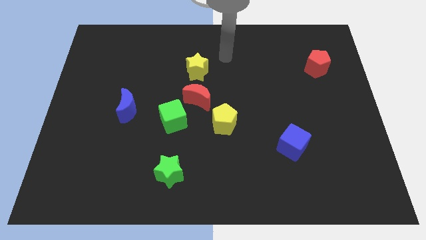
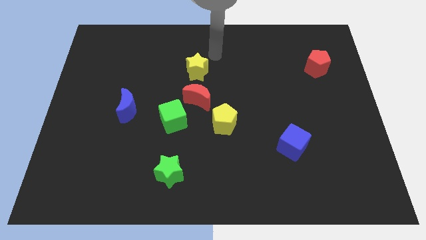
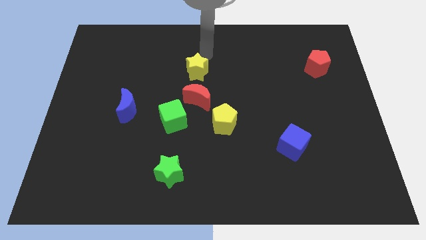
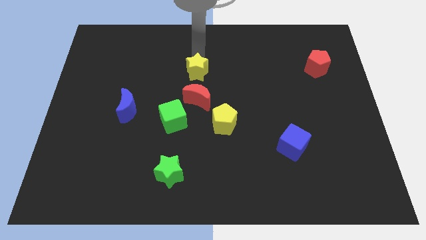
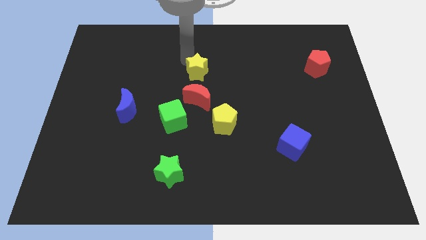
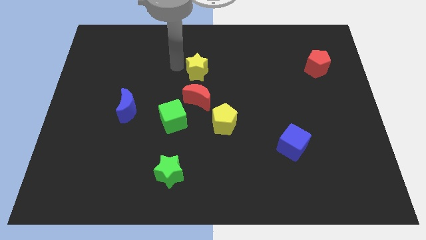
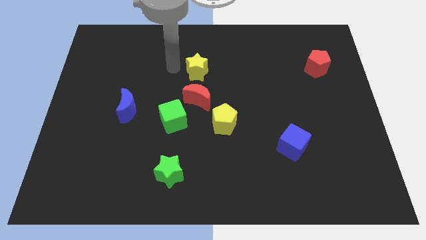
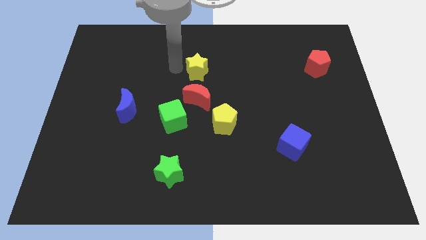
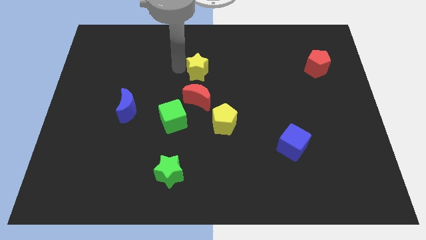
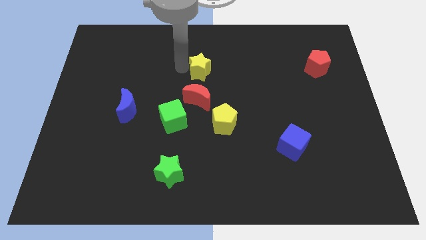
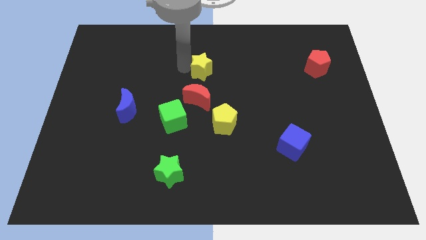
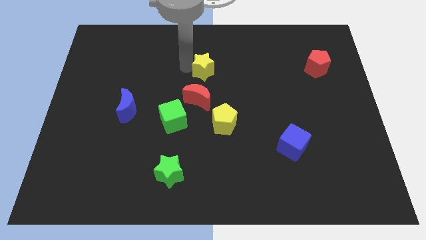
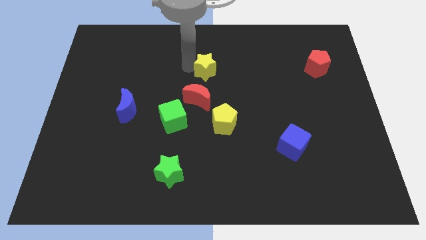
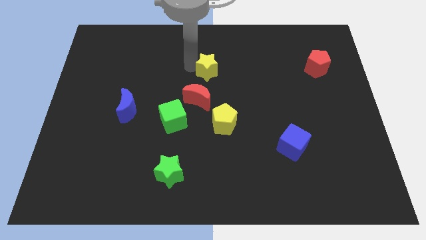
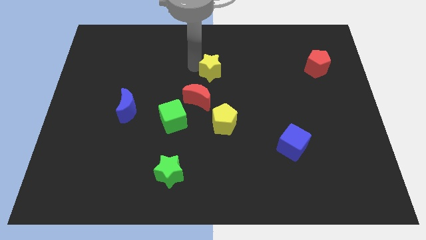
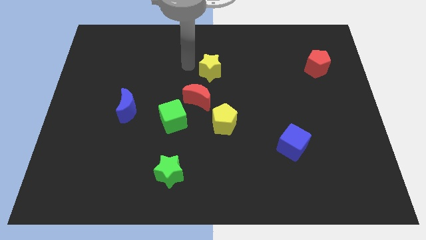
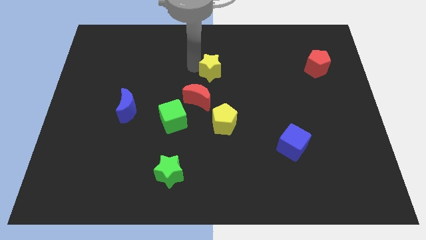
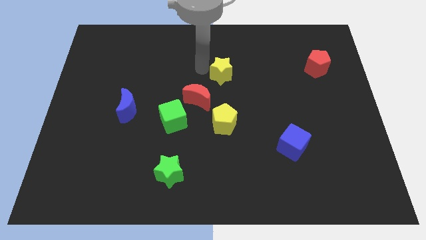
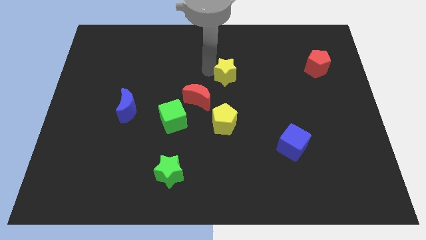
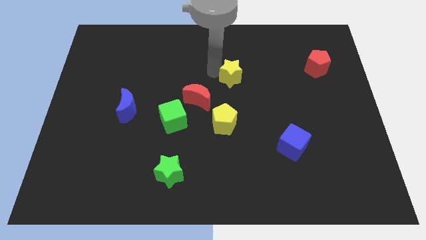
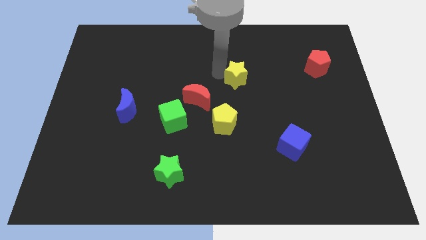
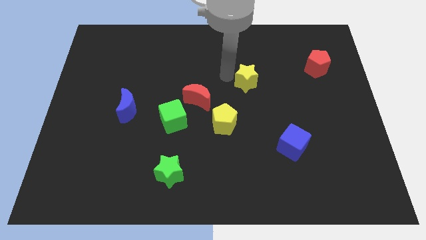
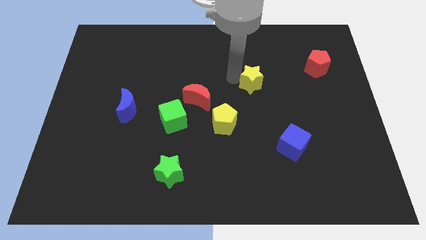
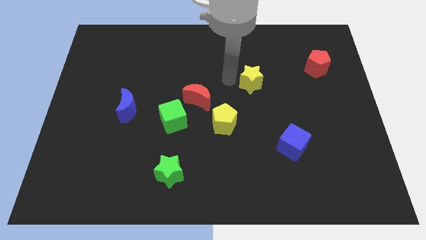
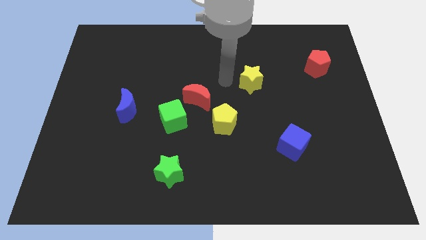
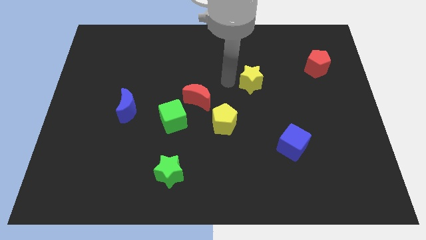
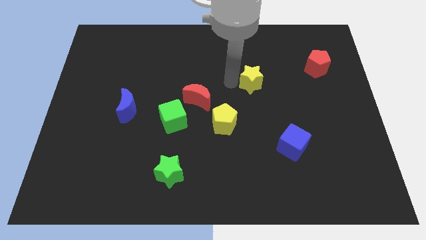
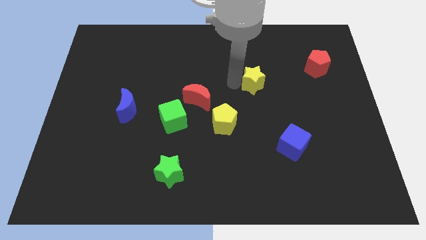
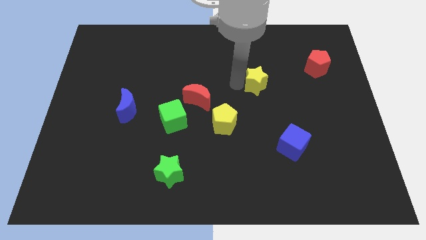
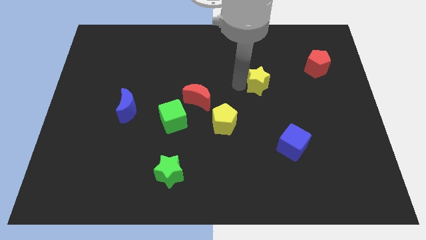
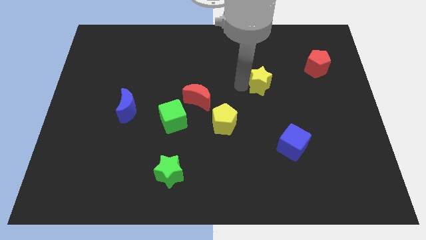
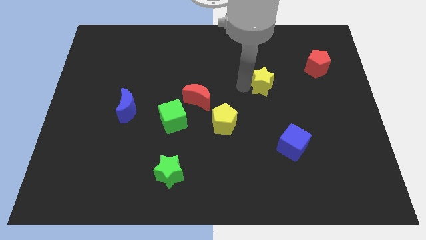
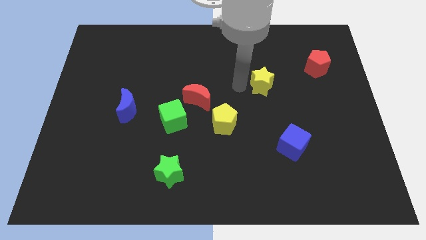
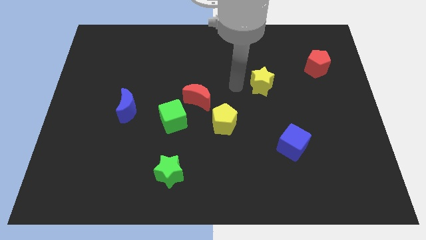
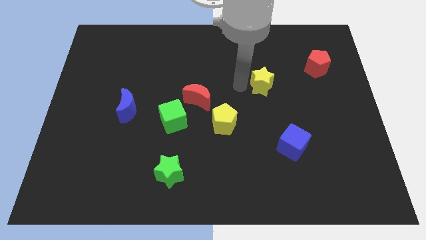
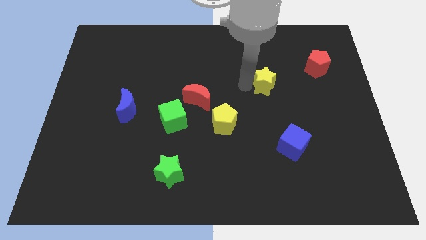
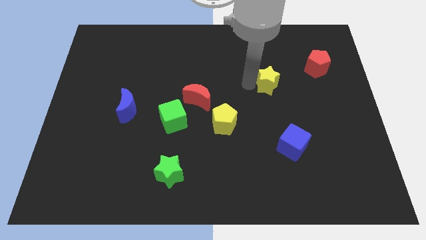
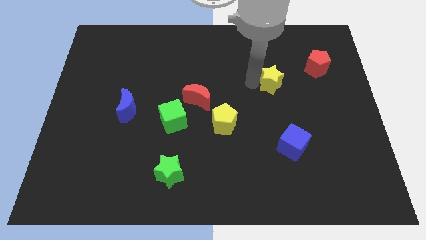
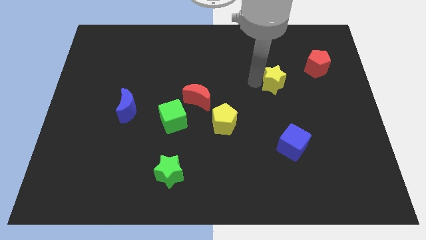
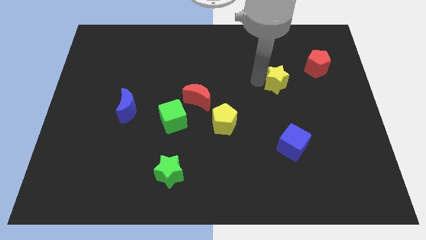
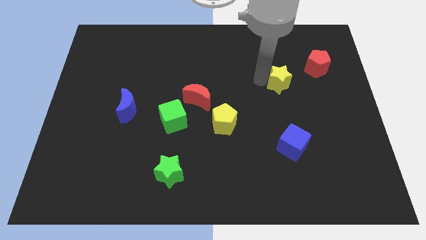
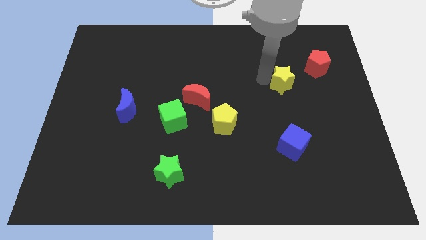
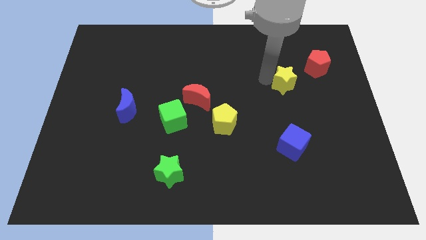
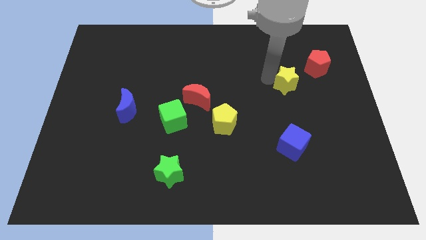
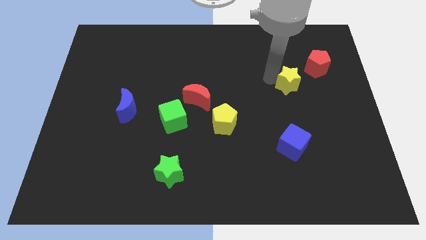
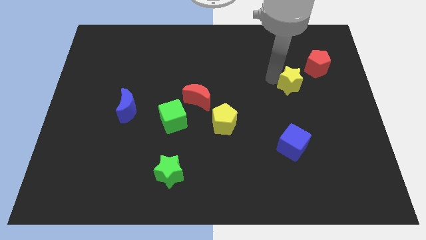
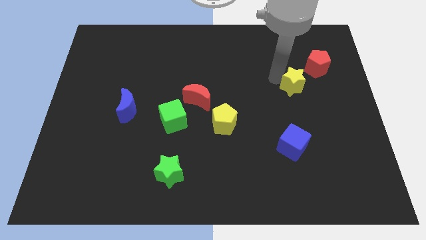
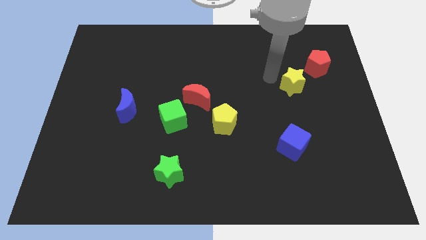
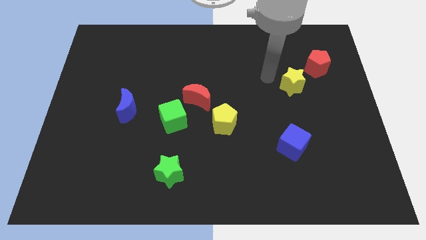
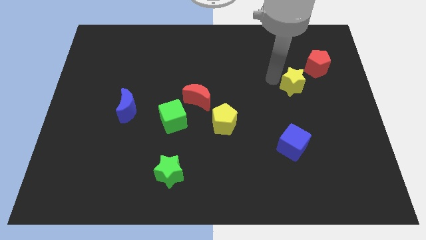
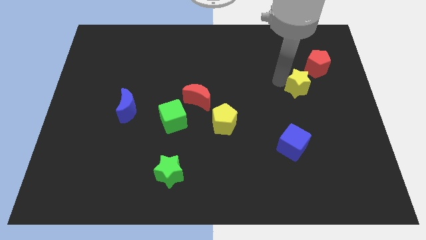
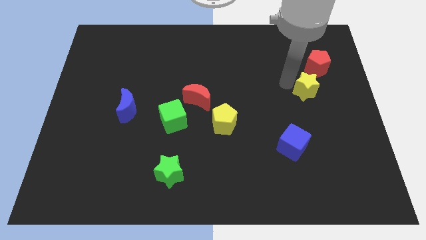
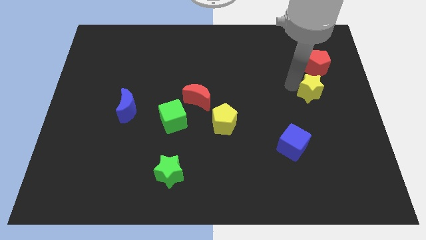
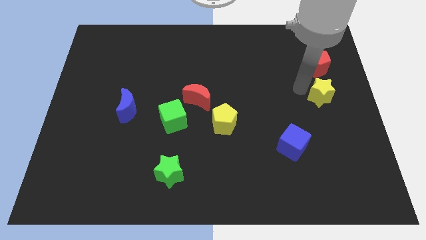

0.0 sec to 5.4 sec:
push the yellow star to the right side
